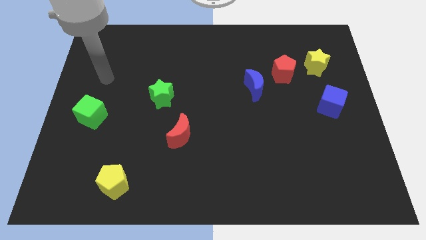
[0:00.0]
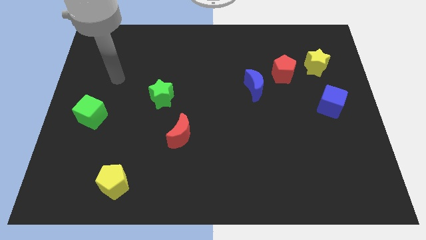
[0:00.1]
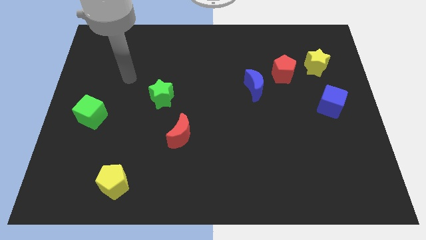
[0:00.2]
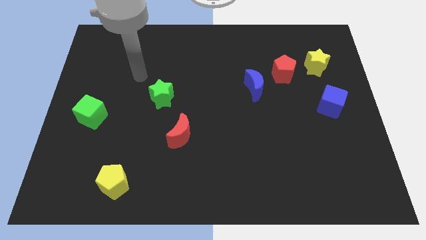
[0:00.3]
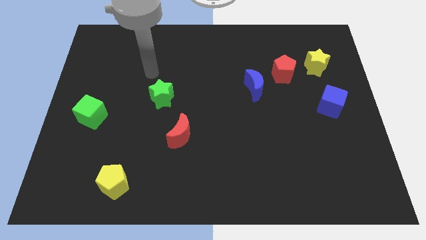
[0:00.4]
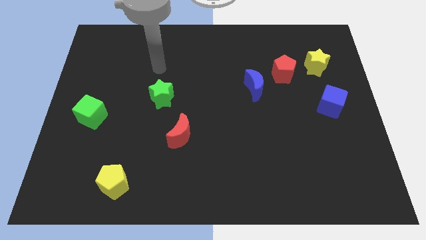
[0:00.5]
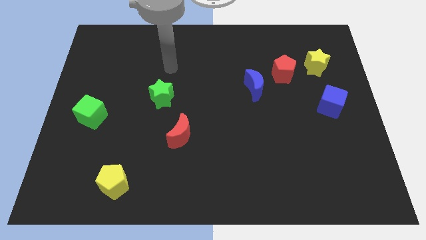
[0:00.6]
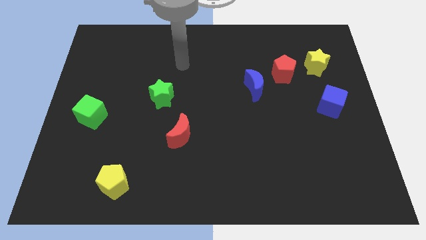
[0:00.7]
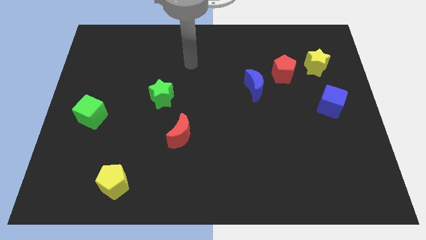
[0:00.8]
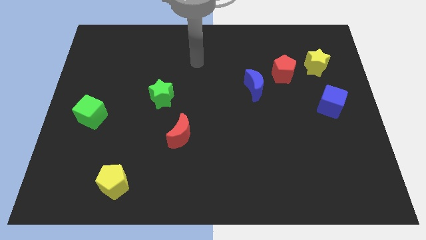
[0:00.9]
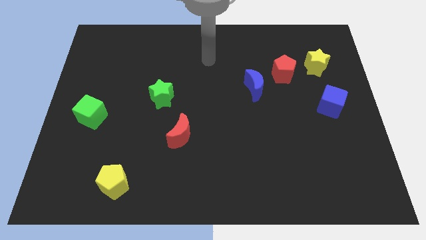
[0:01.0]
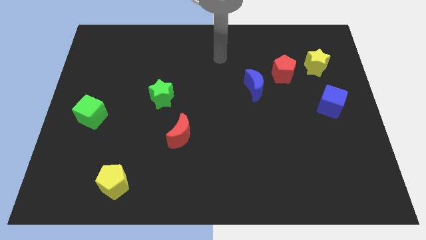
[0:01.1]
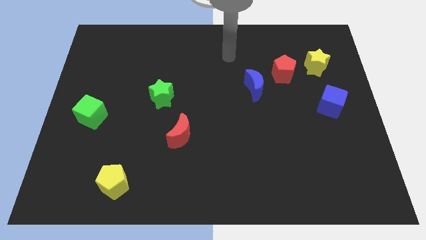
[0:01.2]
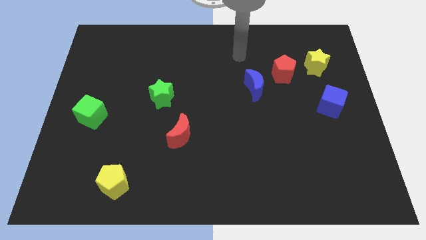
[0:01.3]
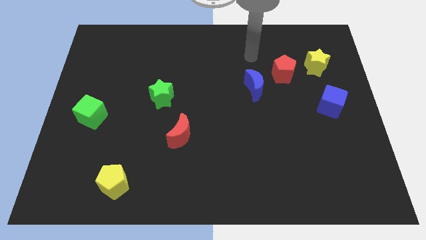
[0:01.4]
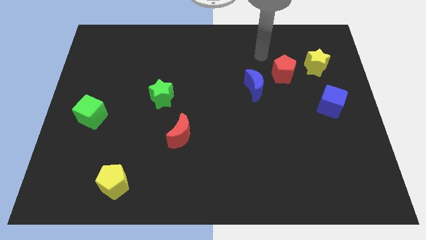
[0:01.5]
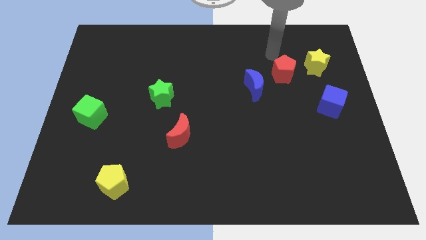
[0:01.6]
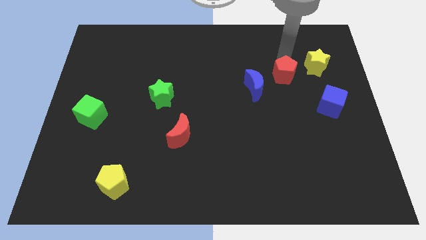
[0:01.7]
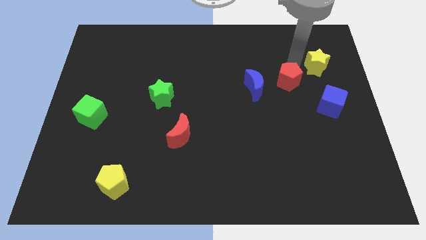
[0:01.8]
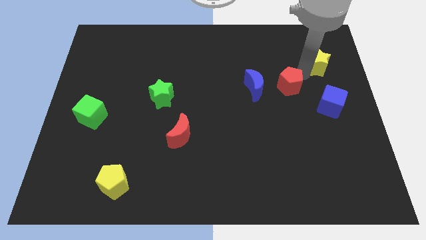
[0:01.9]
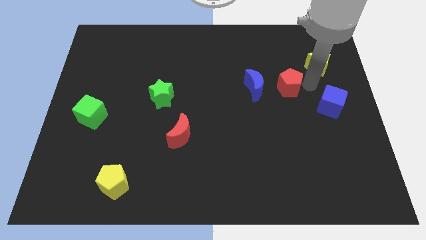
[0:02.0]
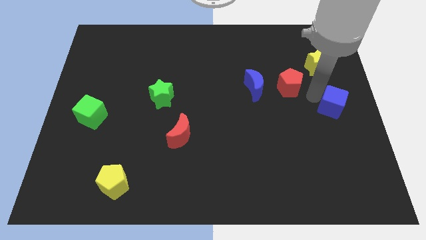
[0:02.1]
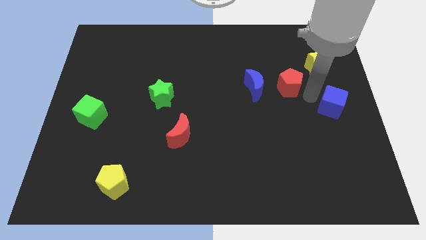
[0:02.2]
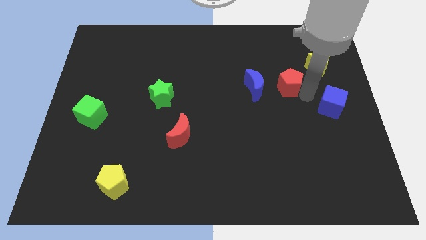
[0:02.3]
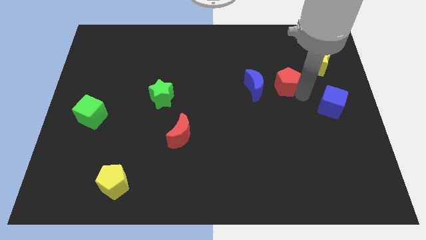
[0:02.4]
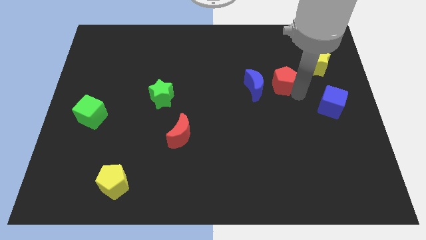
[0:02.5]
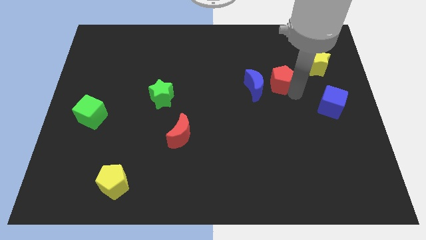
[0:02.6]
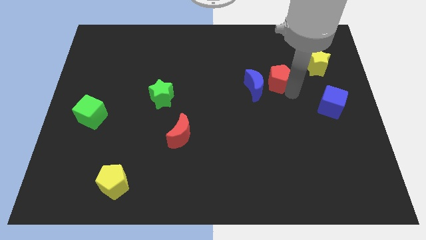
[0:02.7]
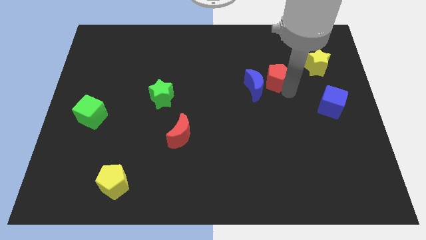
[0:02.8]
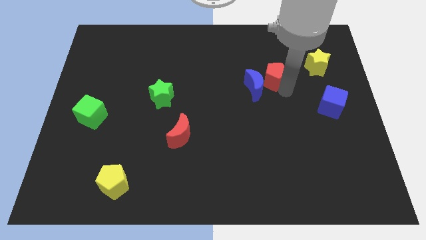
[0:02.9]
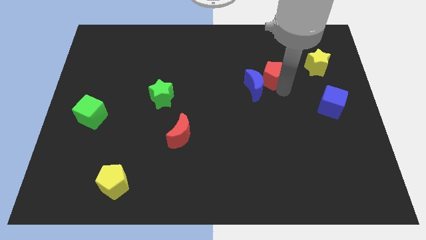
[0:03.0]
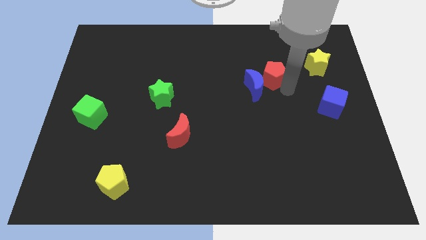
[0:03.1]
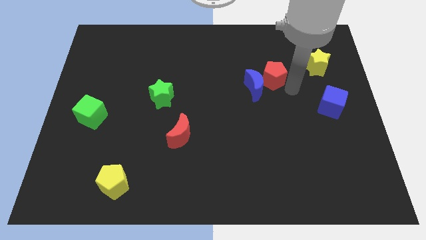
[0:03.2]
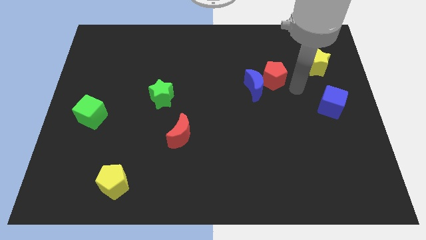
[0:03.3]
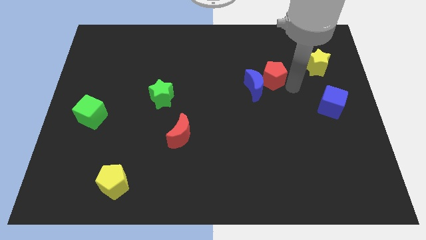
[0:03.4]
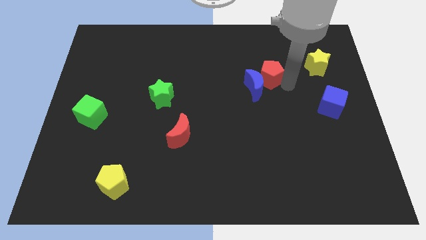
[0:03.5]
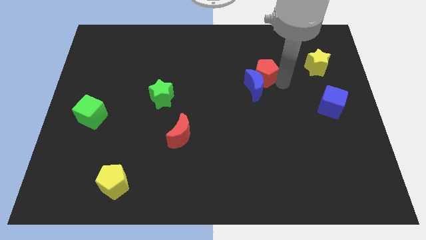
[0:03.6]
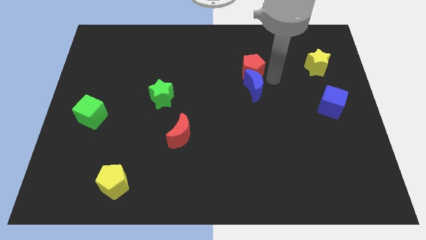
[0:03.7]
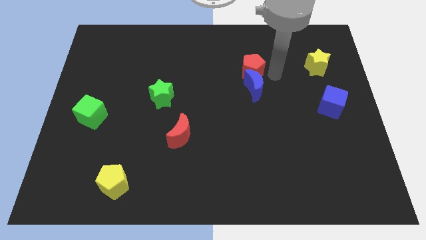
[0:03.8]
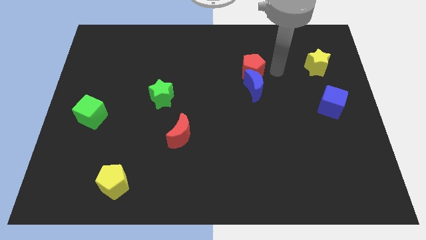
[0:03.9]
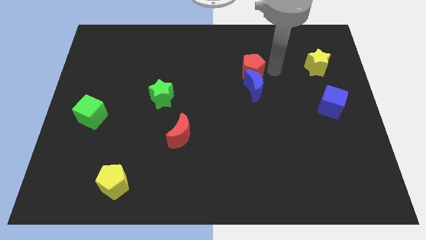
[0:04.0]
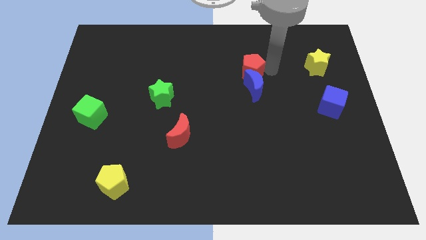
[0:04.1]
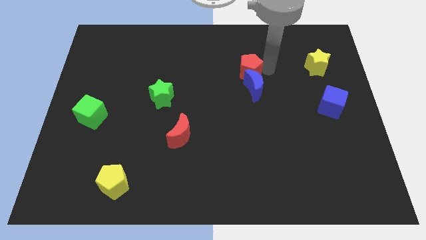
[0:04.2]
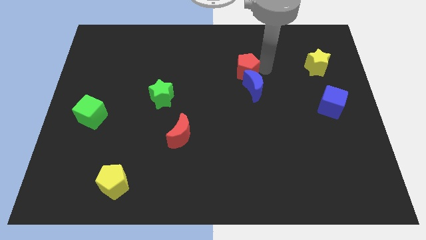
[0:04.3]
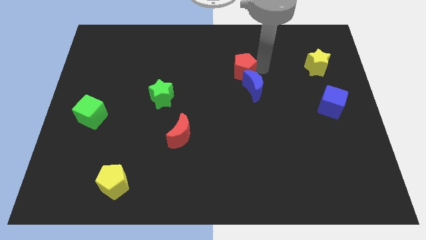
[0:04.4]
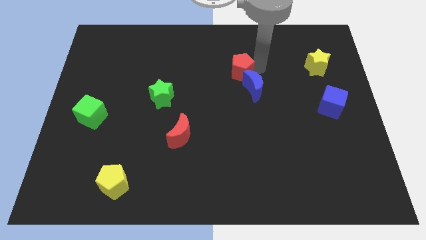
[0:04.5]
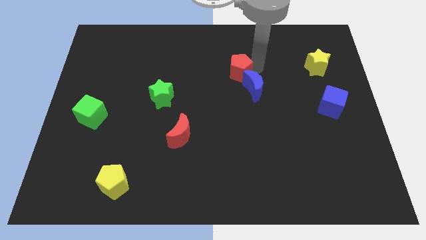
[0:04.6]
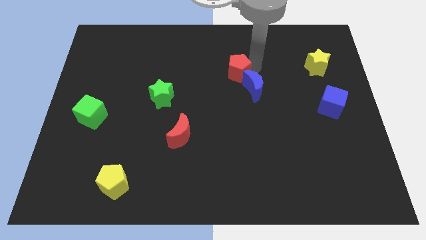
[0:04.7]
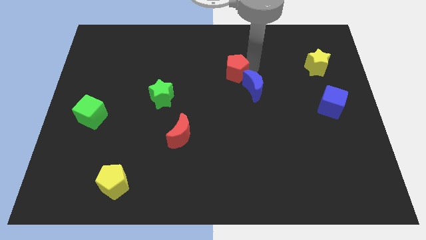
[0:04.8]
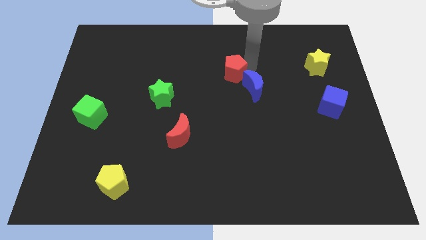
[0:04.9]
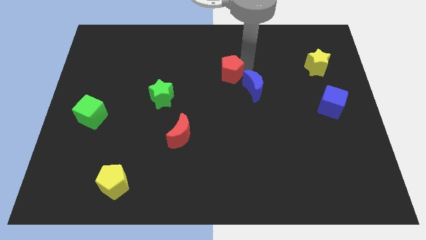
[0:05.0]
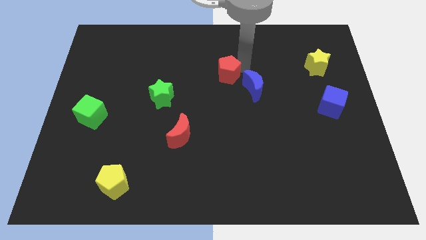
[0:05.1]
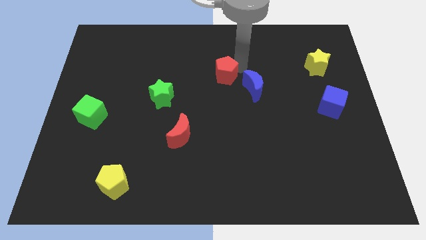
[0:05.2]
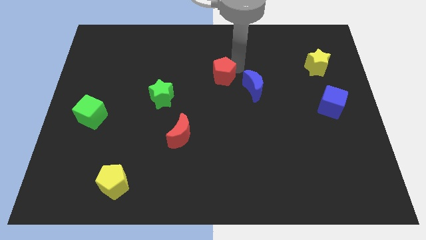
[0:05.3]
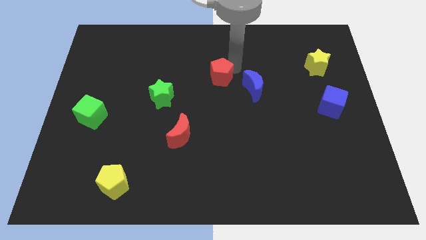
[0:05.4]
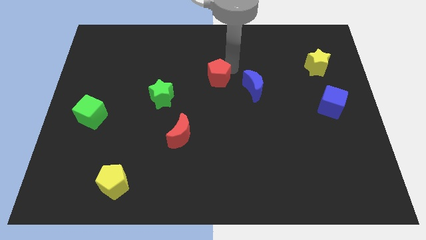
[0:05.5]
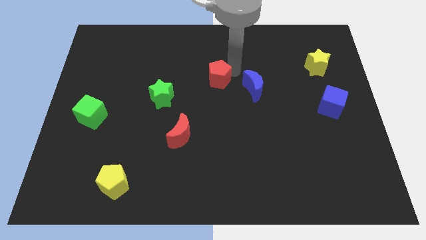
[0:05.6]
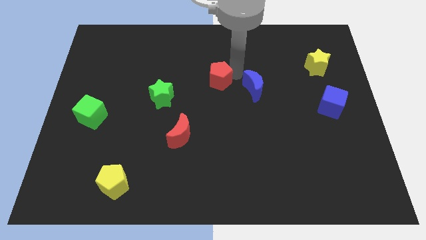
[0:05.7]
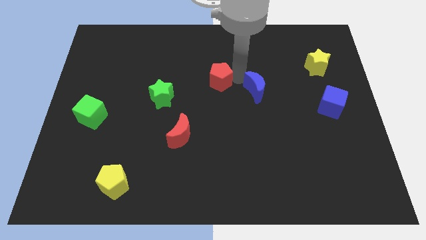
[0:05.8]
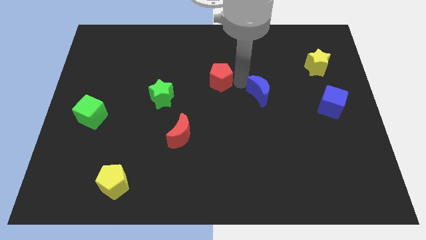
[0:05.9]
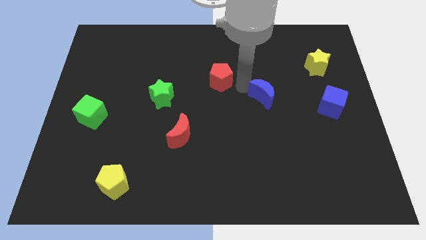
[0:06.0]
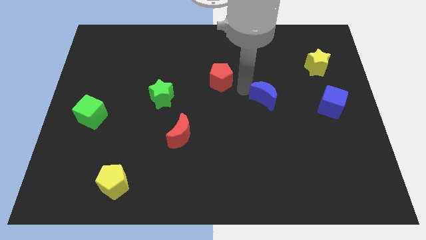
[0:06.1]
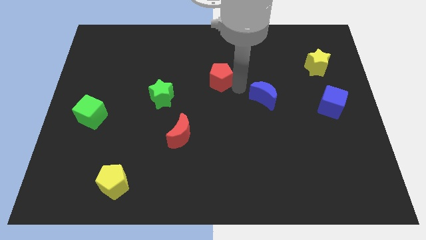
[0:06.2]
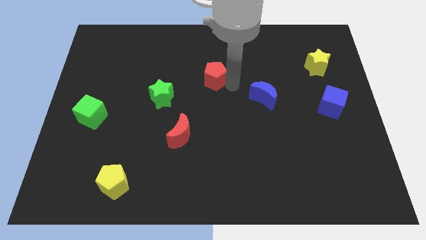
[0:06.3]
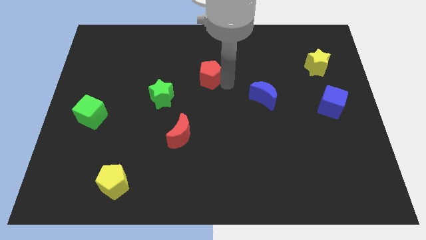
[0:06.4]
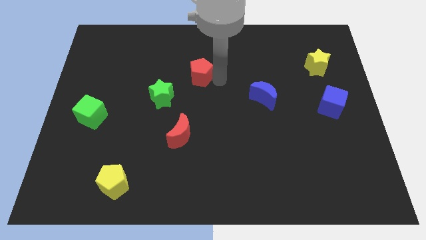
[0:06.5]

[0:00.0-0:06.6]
slide the red pentagon left

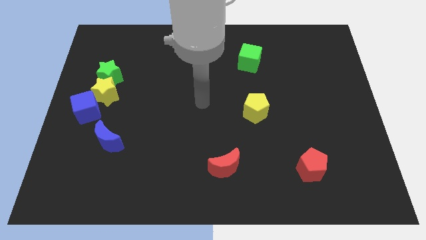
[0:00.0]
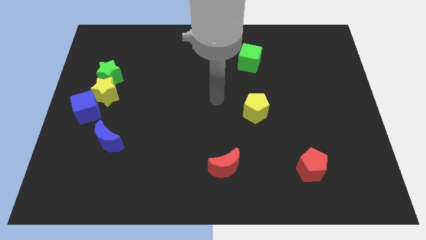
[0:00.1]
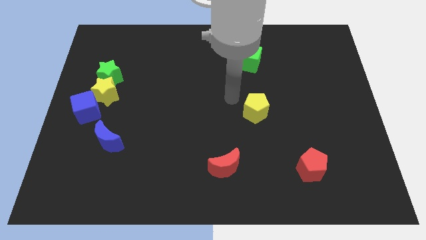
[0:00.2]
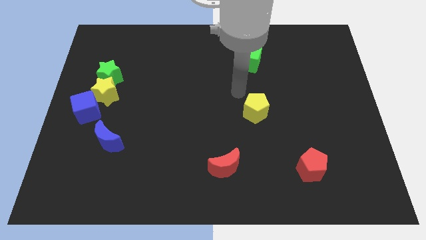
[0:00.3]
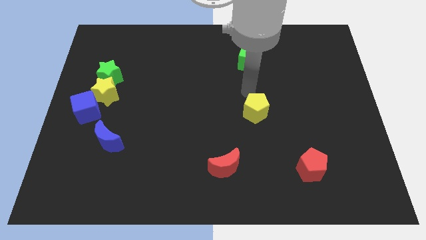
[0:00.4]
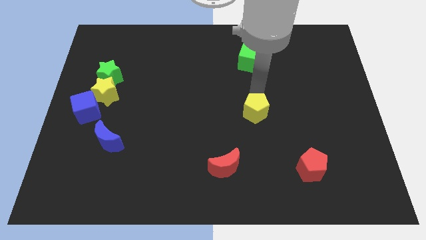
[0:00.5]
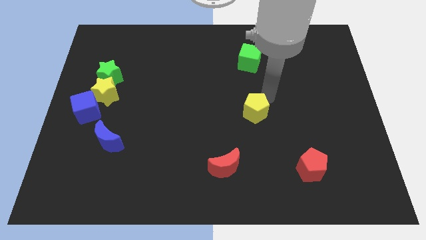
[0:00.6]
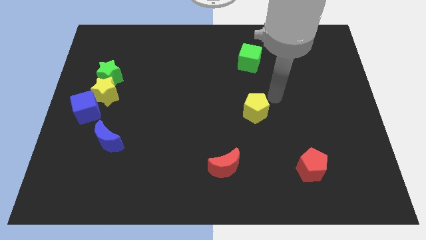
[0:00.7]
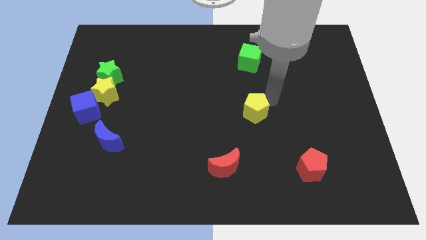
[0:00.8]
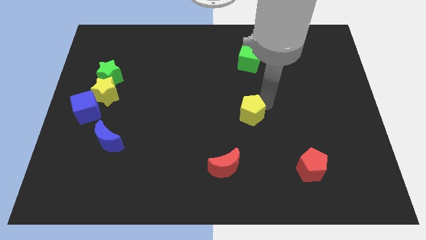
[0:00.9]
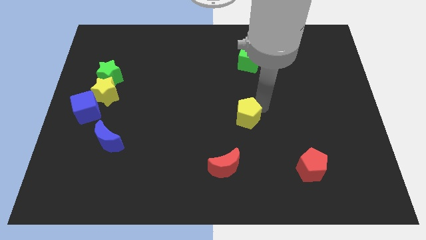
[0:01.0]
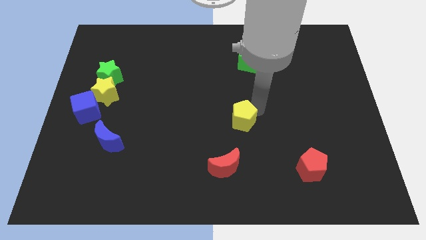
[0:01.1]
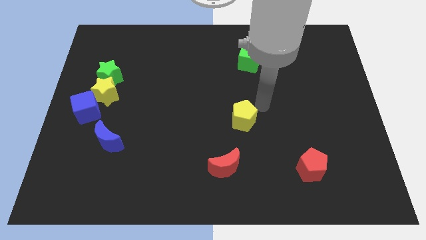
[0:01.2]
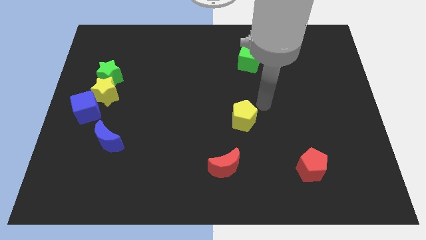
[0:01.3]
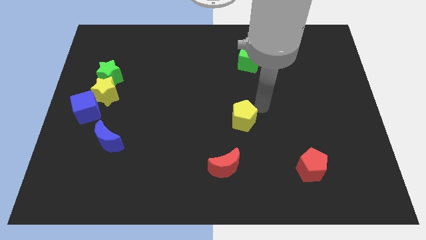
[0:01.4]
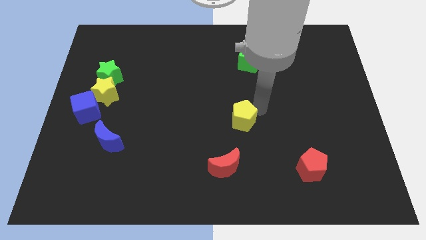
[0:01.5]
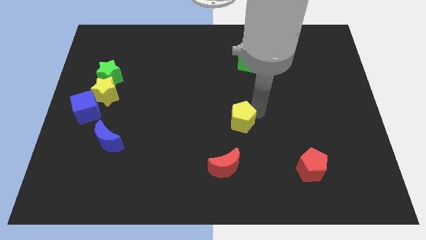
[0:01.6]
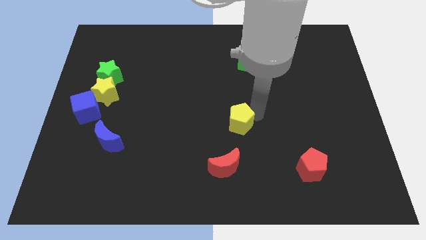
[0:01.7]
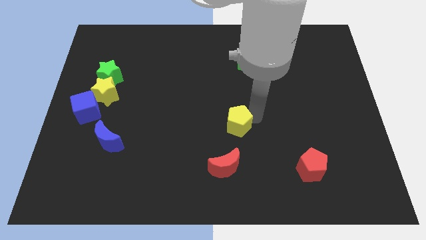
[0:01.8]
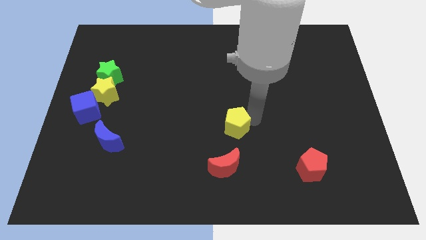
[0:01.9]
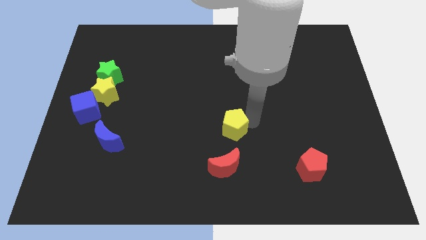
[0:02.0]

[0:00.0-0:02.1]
move the yellow pentagon downwards and left a little bit
